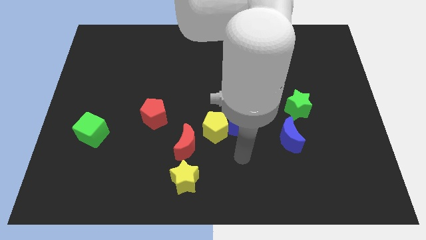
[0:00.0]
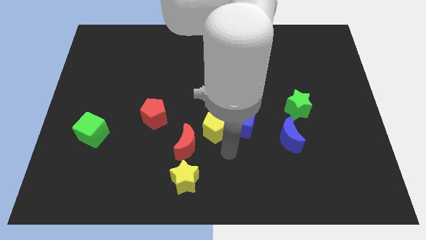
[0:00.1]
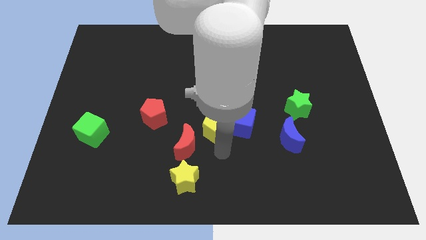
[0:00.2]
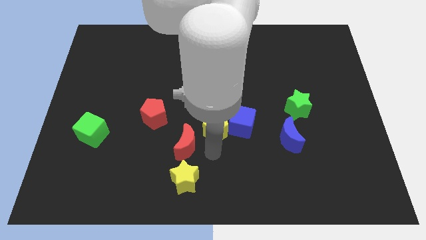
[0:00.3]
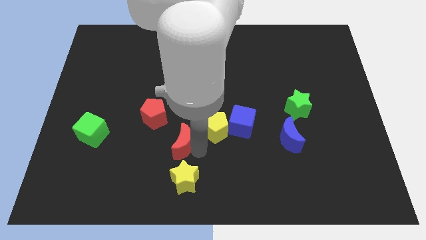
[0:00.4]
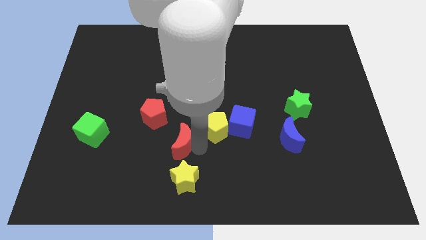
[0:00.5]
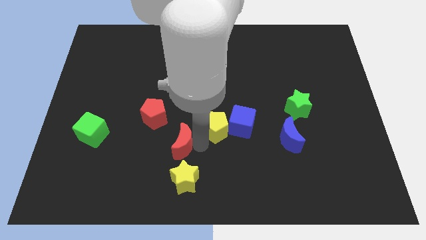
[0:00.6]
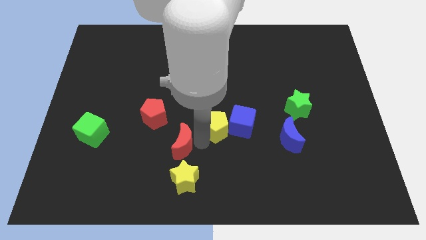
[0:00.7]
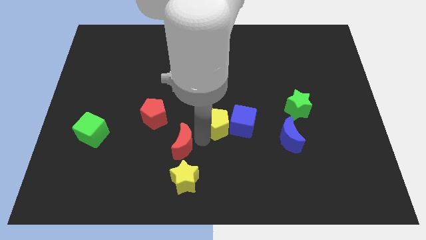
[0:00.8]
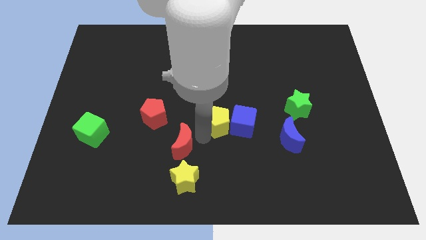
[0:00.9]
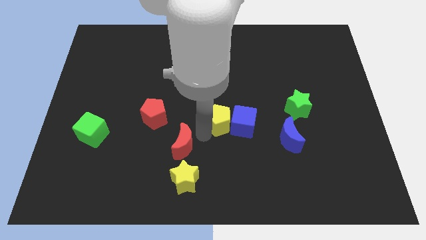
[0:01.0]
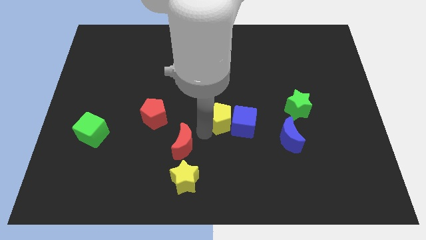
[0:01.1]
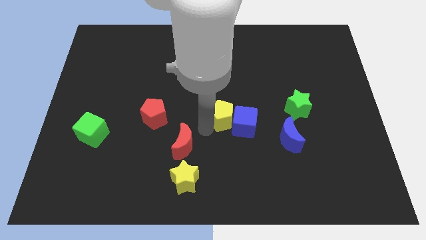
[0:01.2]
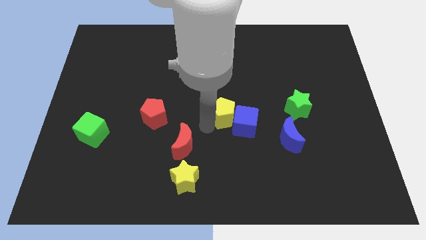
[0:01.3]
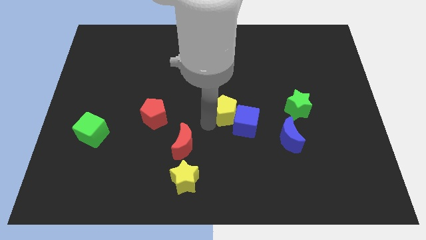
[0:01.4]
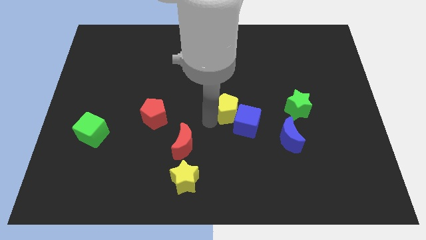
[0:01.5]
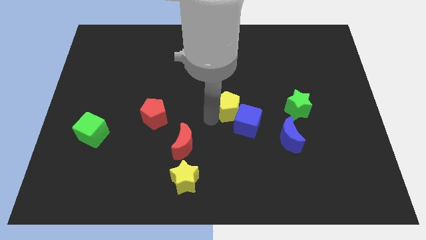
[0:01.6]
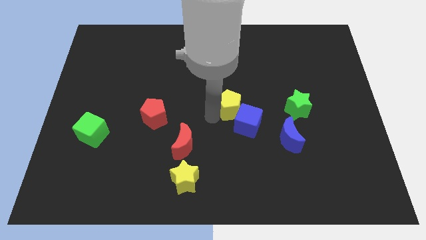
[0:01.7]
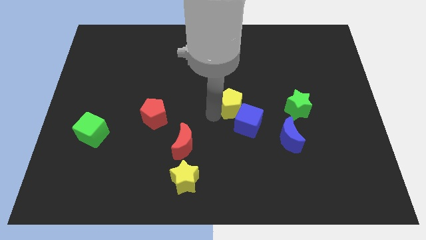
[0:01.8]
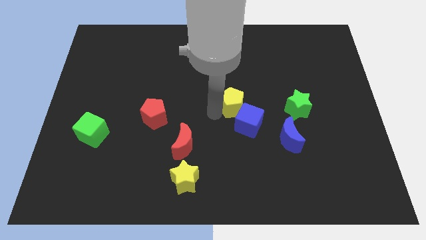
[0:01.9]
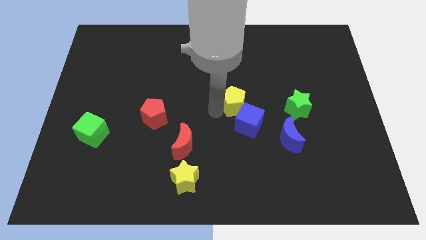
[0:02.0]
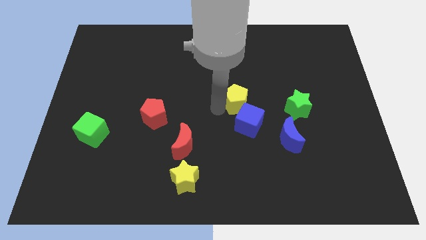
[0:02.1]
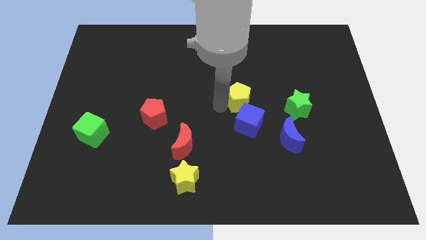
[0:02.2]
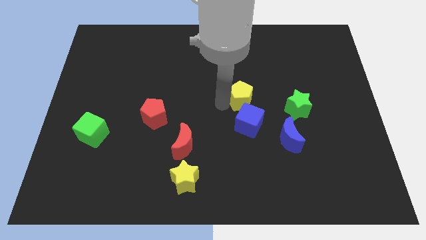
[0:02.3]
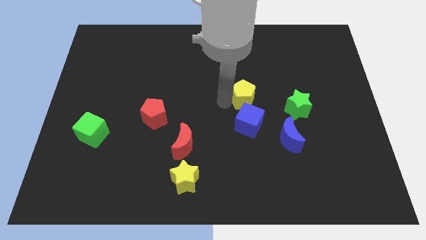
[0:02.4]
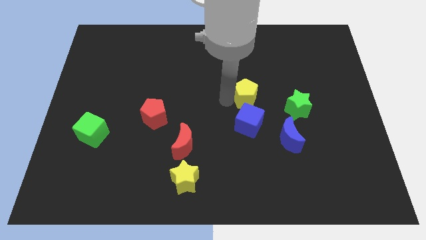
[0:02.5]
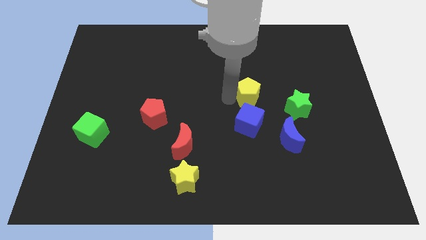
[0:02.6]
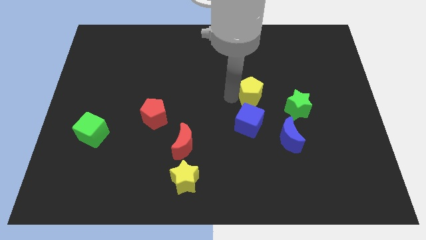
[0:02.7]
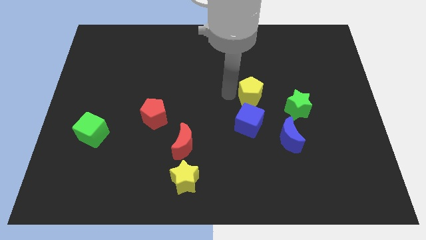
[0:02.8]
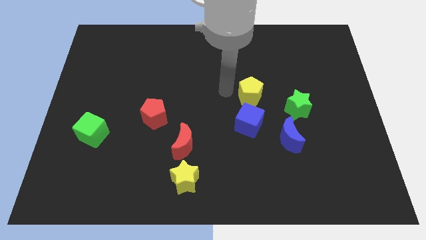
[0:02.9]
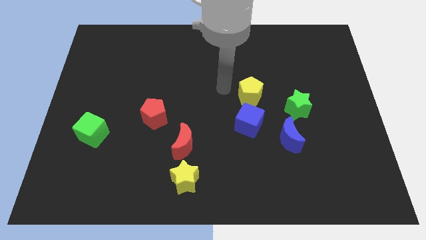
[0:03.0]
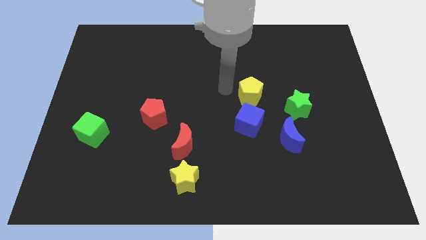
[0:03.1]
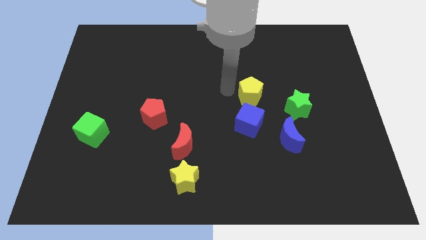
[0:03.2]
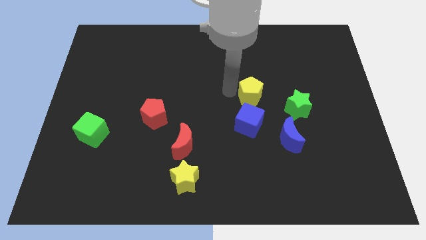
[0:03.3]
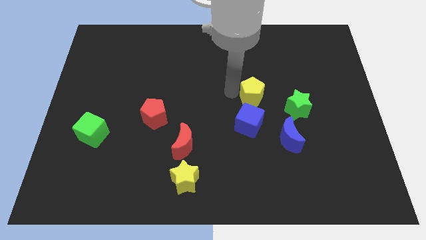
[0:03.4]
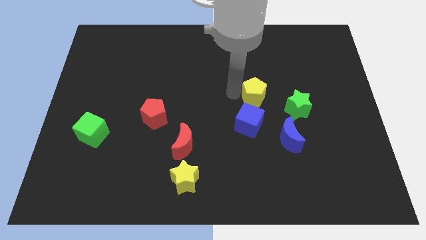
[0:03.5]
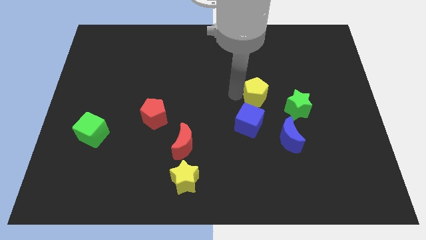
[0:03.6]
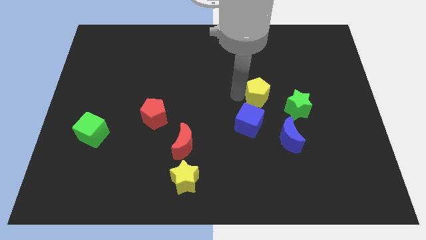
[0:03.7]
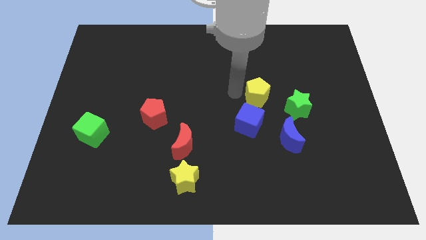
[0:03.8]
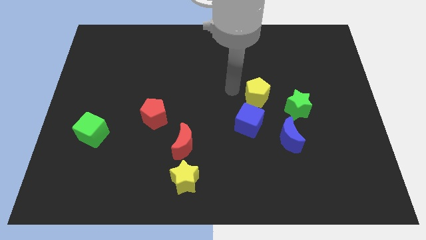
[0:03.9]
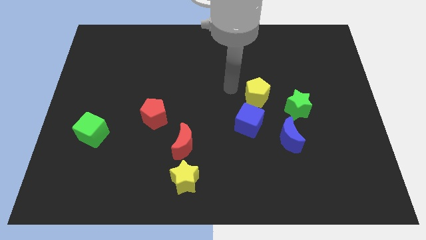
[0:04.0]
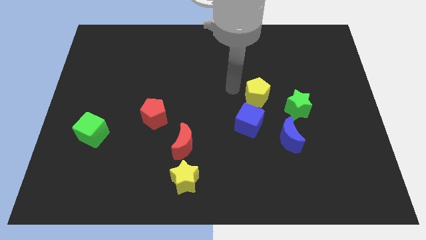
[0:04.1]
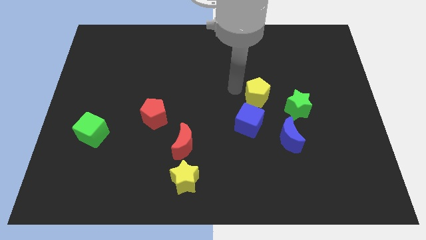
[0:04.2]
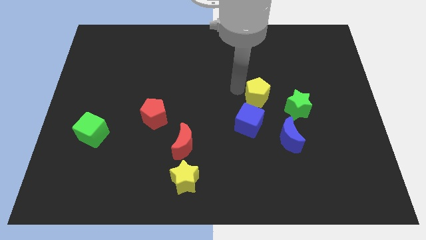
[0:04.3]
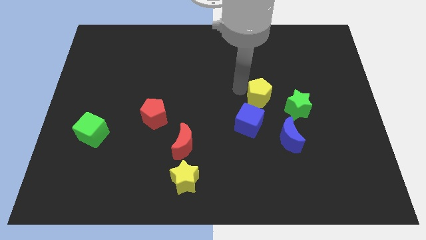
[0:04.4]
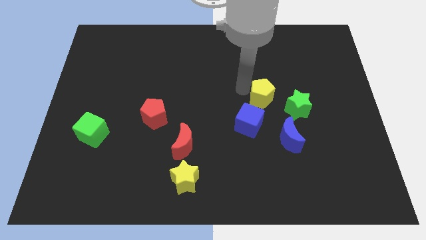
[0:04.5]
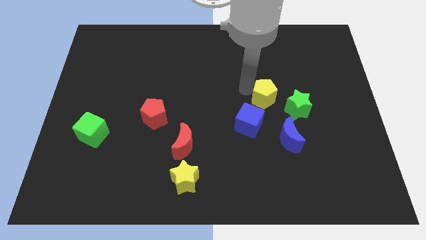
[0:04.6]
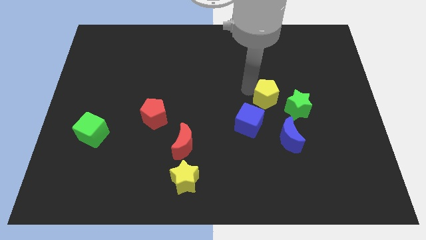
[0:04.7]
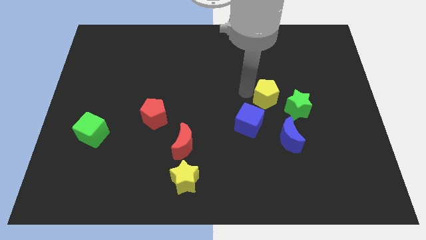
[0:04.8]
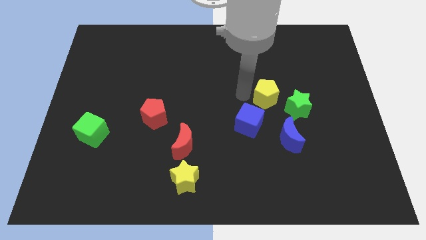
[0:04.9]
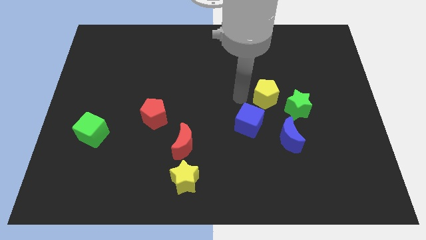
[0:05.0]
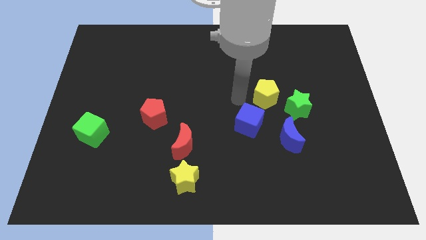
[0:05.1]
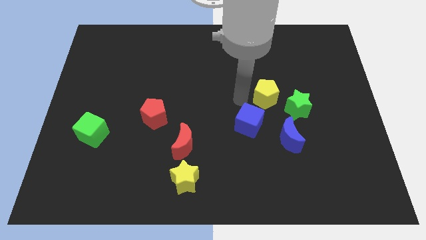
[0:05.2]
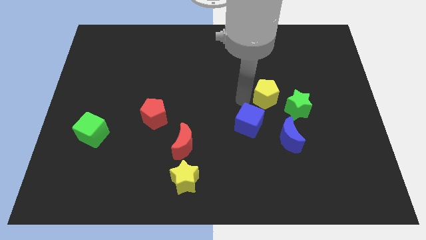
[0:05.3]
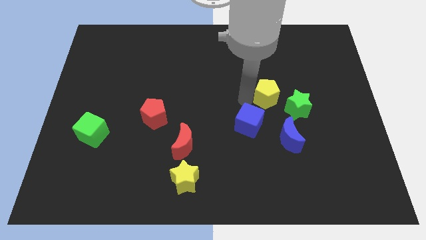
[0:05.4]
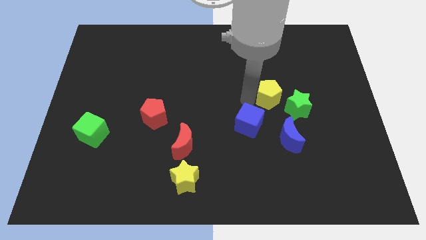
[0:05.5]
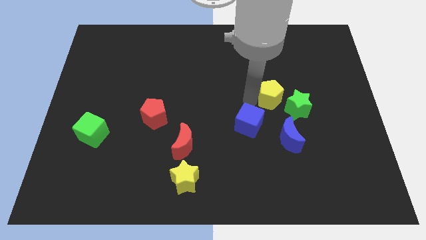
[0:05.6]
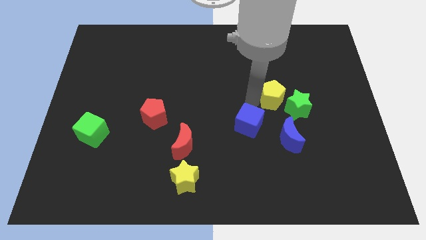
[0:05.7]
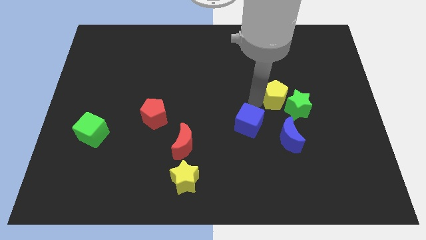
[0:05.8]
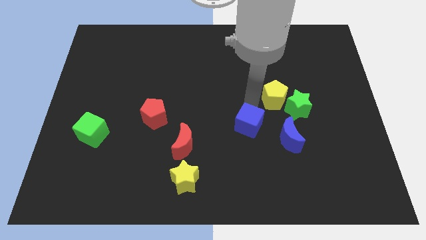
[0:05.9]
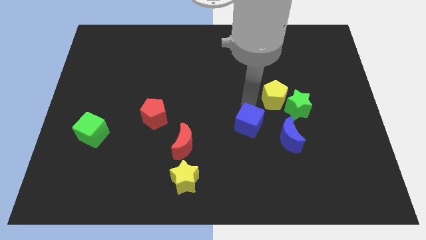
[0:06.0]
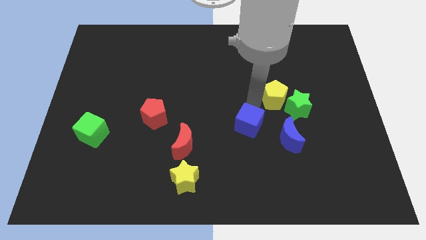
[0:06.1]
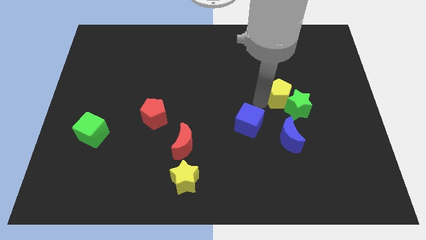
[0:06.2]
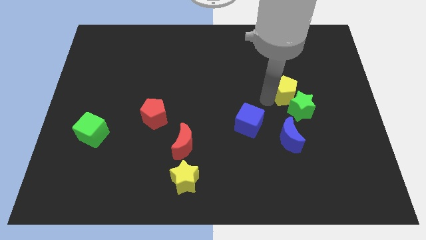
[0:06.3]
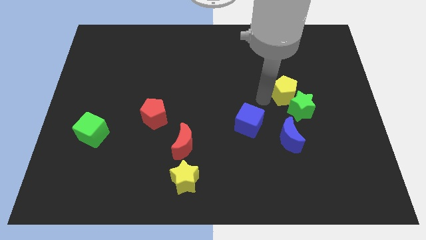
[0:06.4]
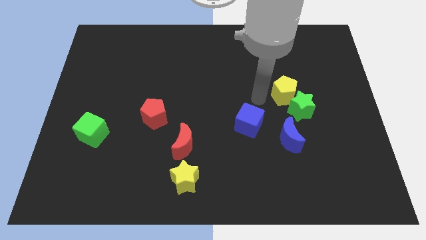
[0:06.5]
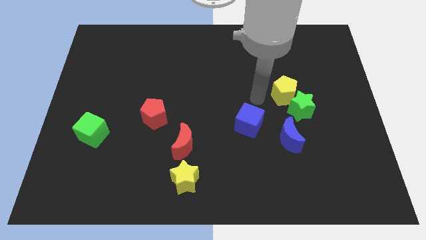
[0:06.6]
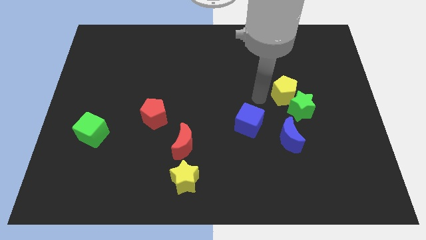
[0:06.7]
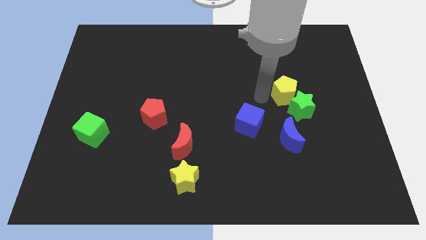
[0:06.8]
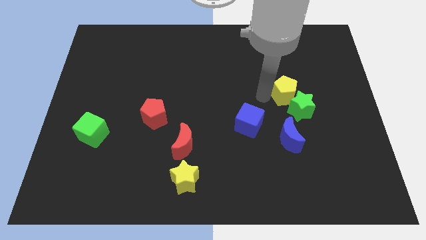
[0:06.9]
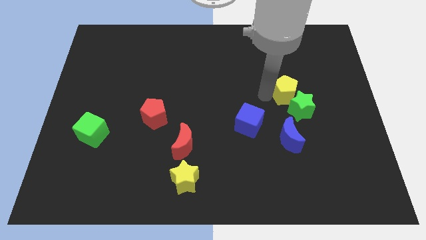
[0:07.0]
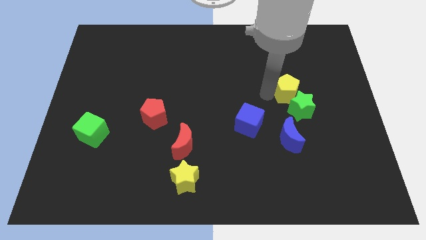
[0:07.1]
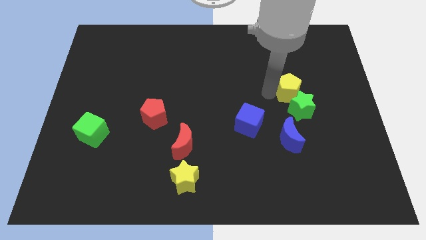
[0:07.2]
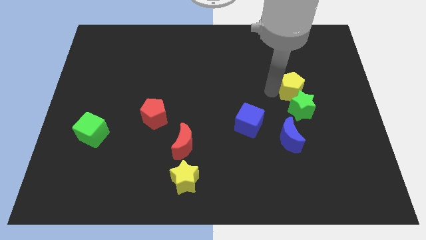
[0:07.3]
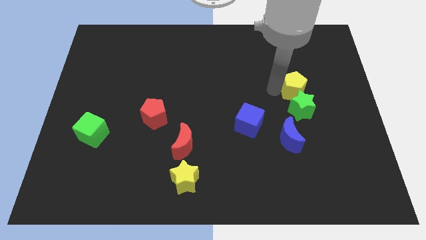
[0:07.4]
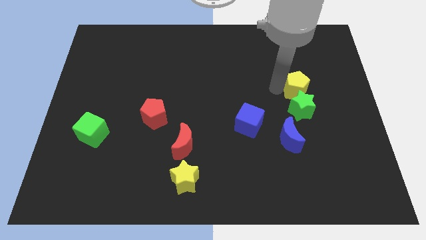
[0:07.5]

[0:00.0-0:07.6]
slide the yellow pentagon to the top right of the green star

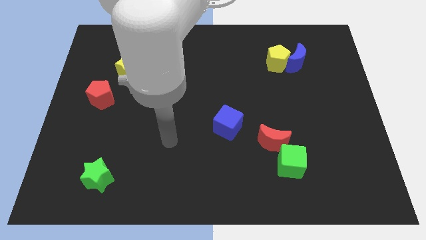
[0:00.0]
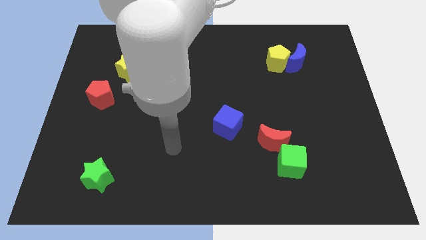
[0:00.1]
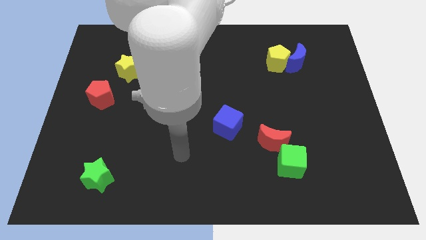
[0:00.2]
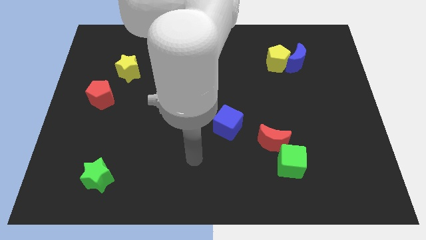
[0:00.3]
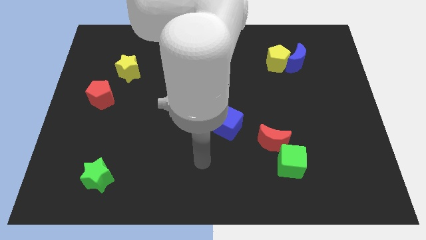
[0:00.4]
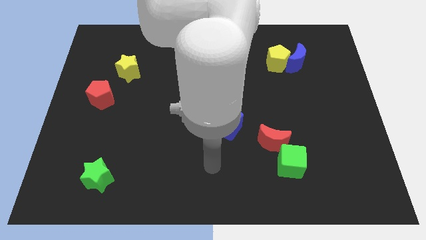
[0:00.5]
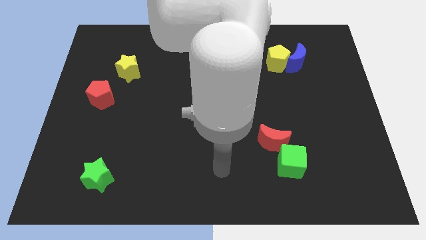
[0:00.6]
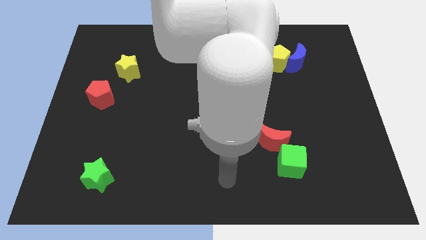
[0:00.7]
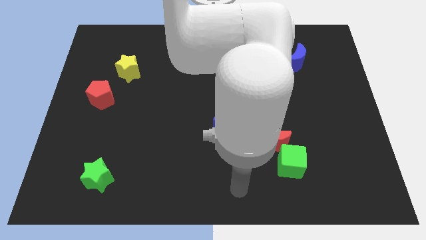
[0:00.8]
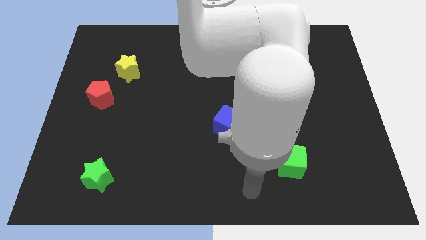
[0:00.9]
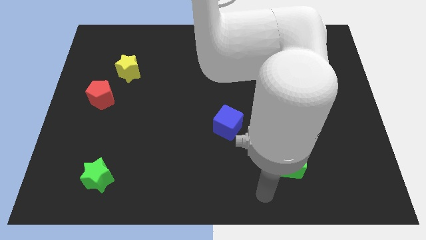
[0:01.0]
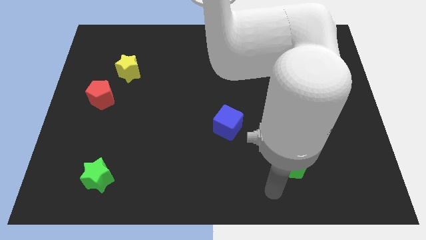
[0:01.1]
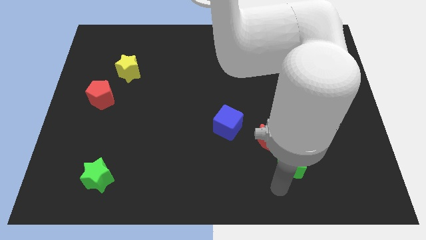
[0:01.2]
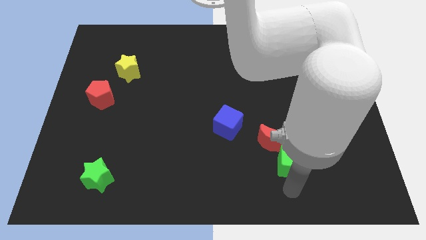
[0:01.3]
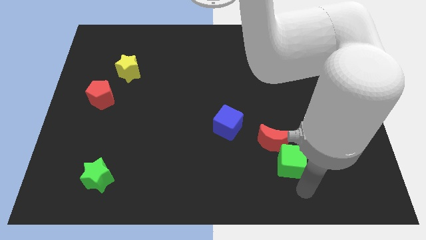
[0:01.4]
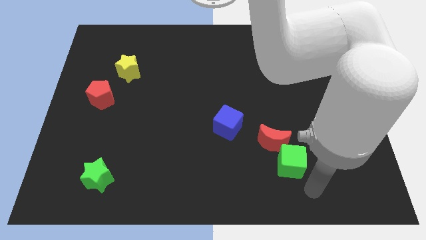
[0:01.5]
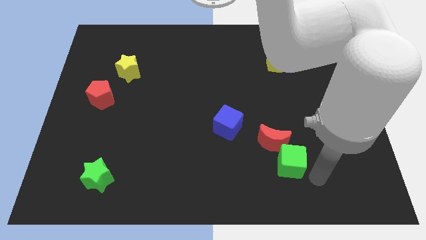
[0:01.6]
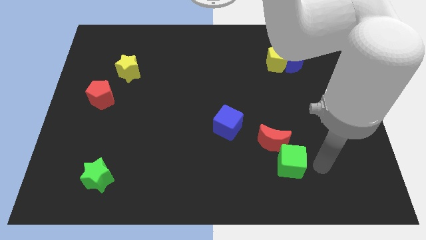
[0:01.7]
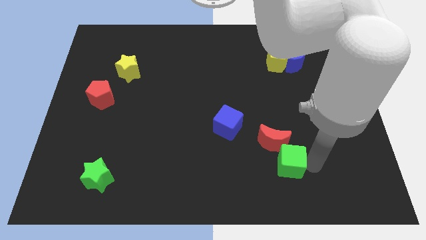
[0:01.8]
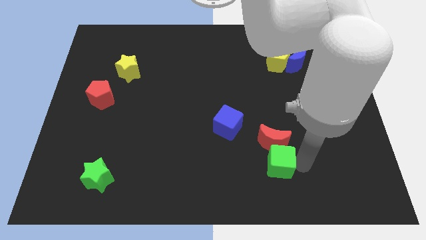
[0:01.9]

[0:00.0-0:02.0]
push the green cube to the bottom left of the red moon
